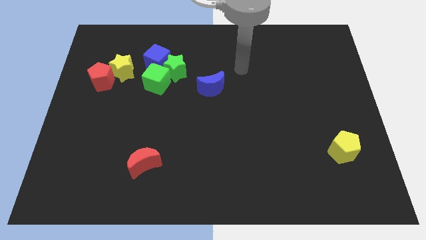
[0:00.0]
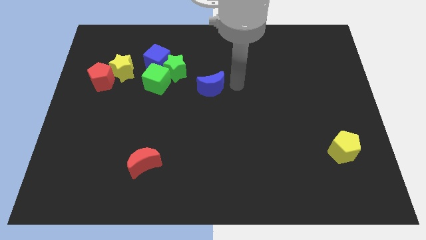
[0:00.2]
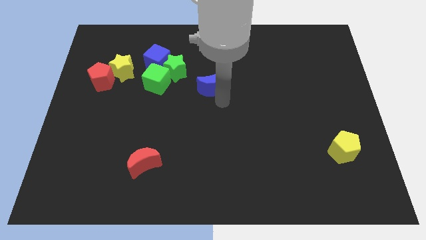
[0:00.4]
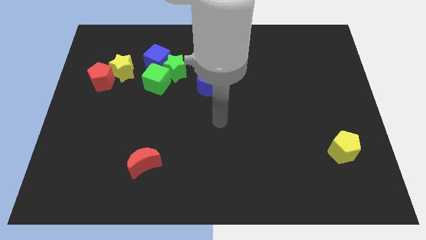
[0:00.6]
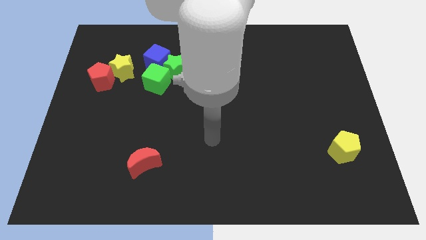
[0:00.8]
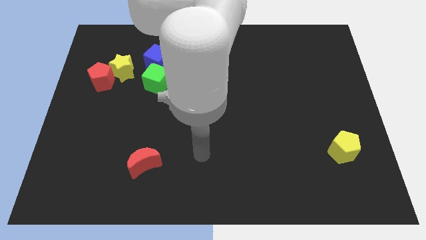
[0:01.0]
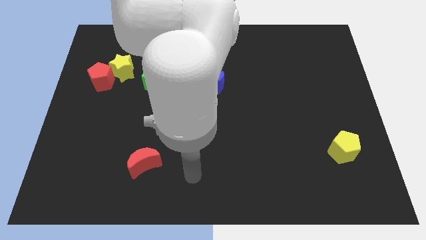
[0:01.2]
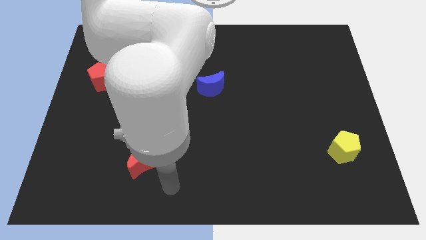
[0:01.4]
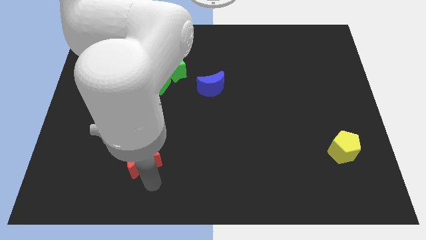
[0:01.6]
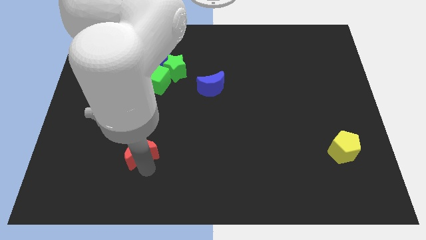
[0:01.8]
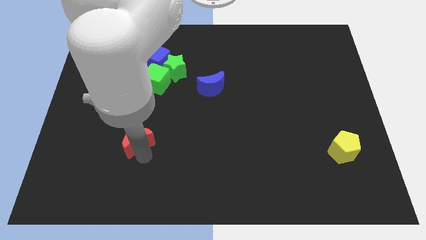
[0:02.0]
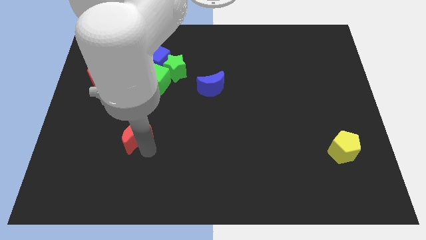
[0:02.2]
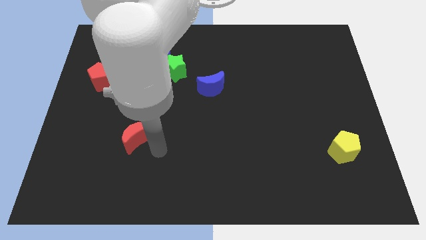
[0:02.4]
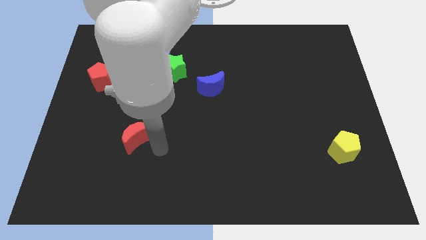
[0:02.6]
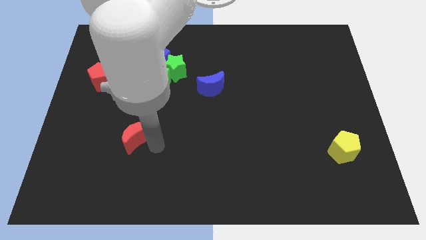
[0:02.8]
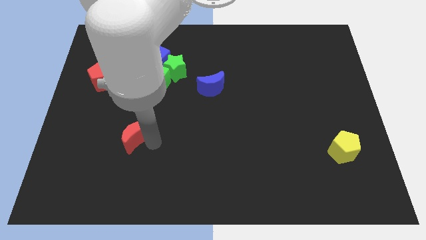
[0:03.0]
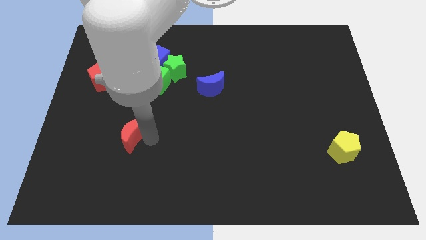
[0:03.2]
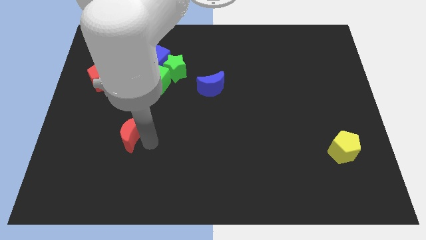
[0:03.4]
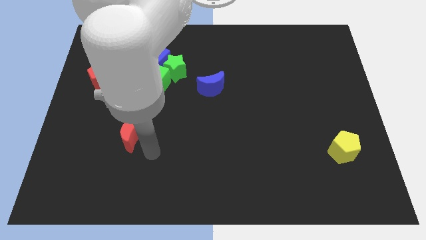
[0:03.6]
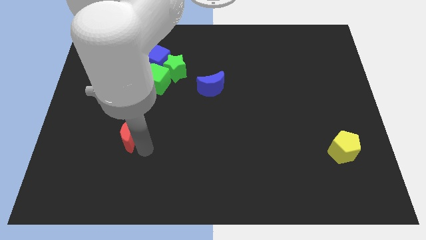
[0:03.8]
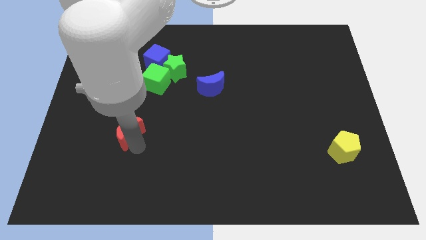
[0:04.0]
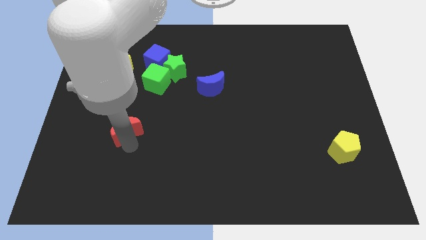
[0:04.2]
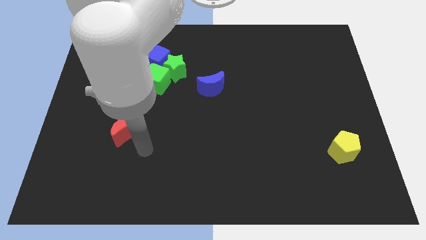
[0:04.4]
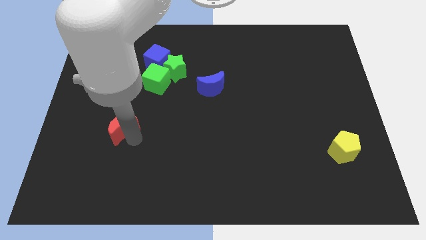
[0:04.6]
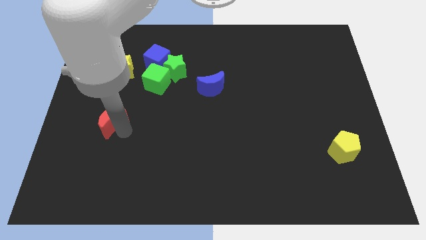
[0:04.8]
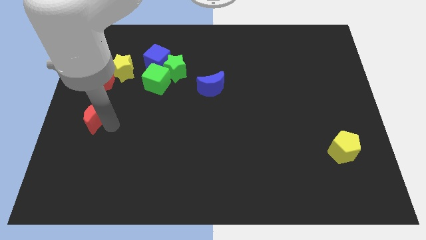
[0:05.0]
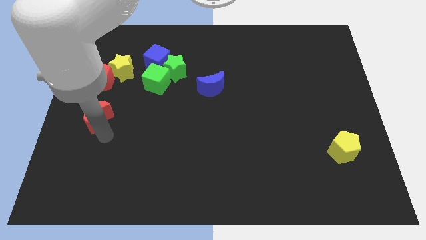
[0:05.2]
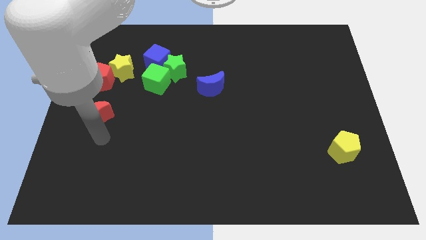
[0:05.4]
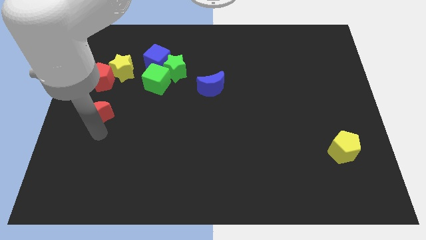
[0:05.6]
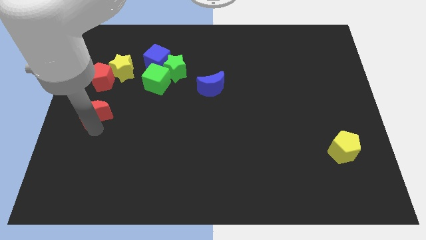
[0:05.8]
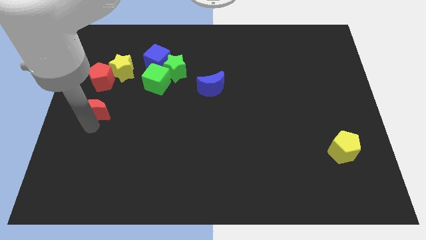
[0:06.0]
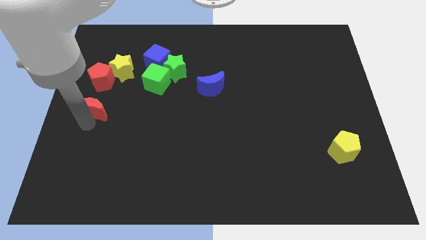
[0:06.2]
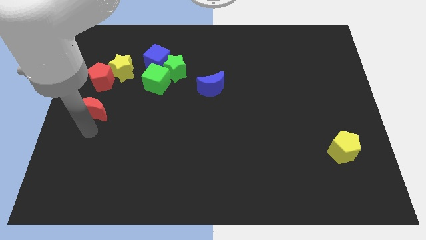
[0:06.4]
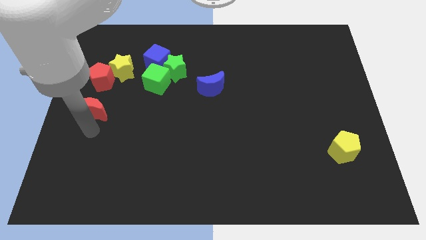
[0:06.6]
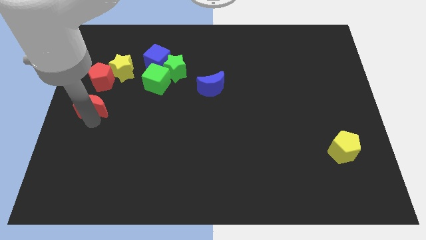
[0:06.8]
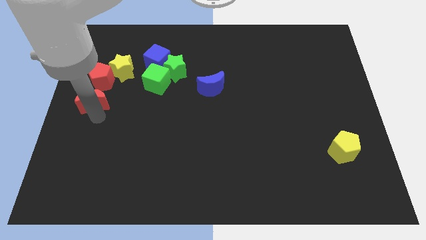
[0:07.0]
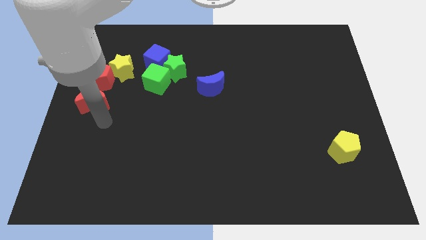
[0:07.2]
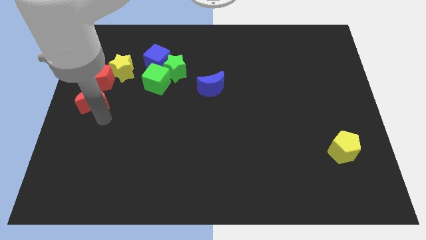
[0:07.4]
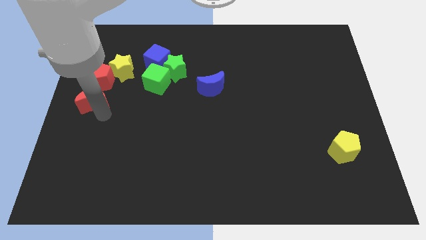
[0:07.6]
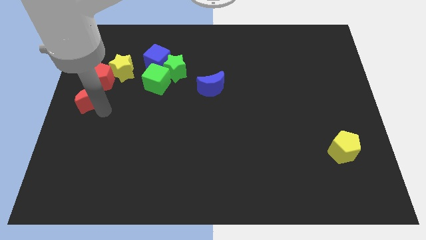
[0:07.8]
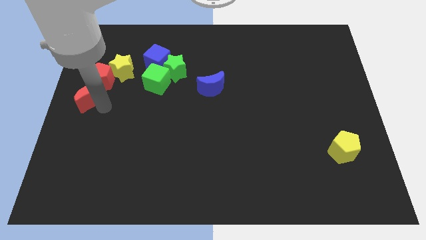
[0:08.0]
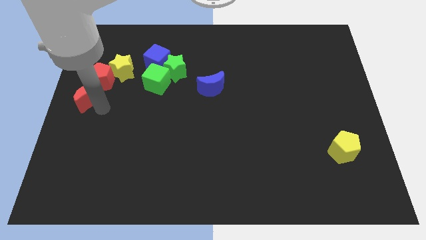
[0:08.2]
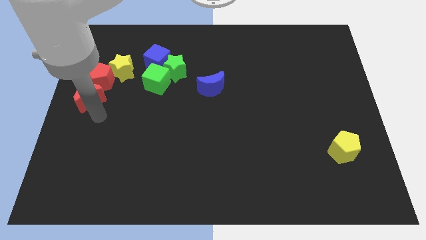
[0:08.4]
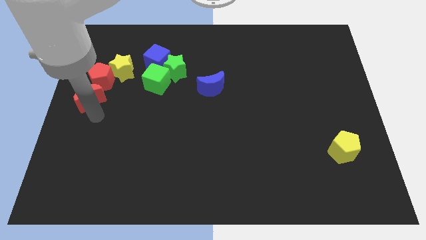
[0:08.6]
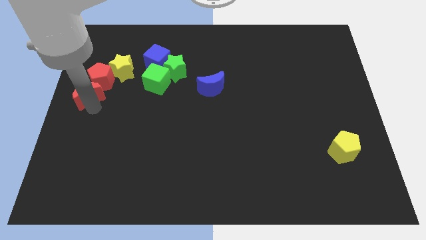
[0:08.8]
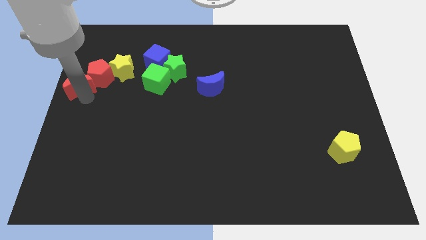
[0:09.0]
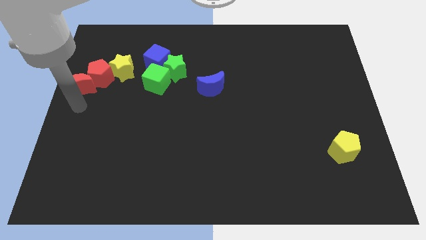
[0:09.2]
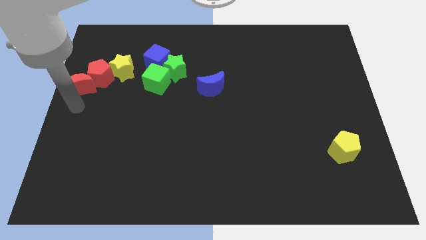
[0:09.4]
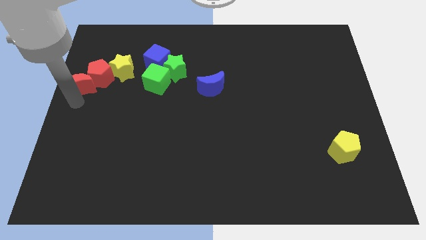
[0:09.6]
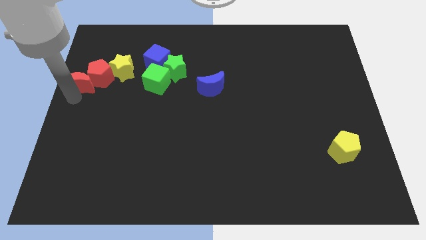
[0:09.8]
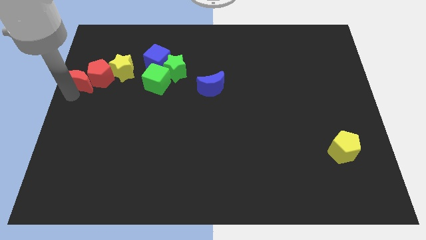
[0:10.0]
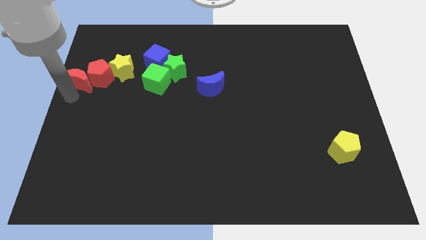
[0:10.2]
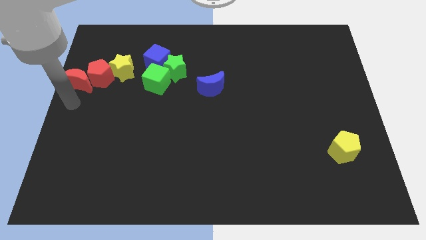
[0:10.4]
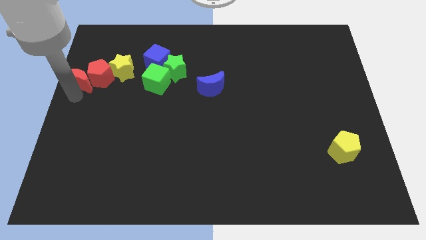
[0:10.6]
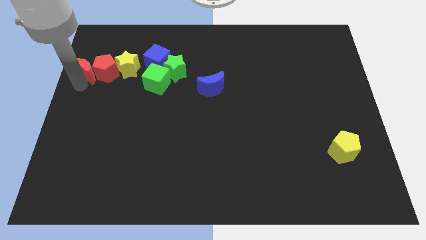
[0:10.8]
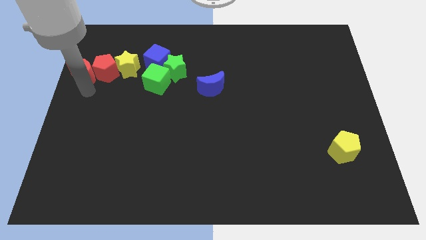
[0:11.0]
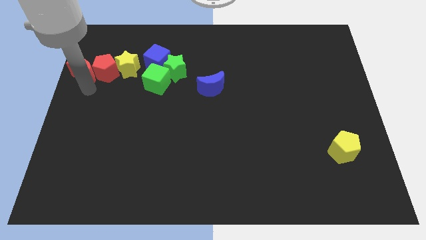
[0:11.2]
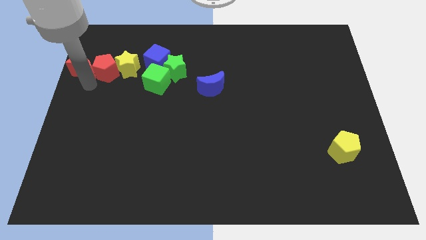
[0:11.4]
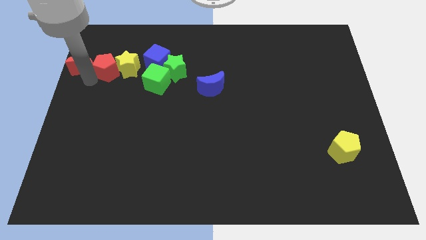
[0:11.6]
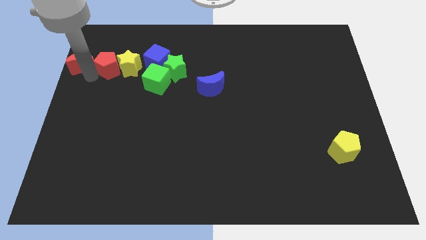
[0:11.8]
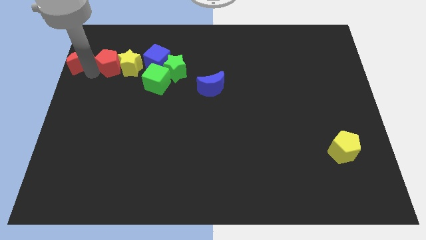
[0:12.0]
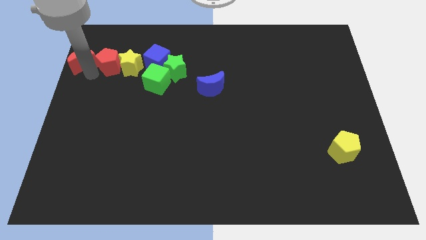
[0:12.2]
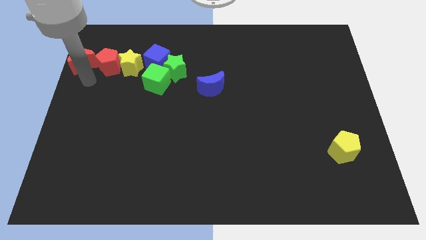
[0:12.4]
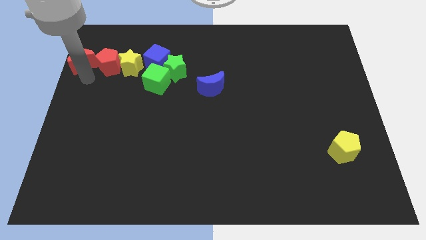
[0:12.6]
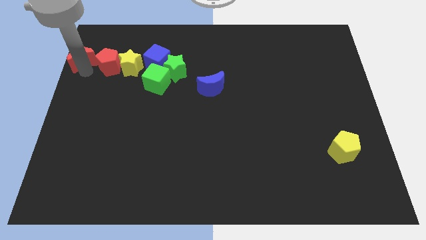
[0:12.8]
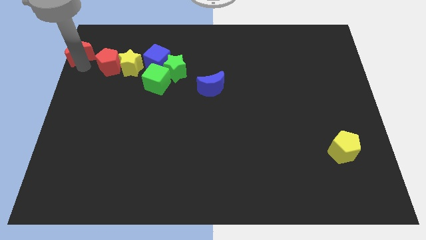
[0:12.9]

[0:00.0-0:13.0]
push the red moon to the top left

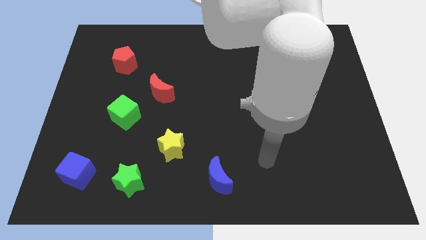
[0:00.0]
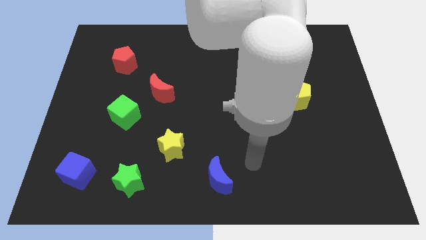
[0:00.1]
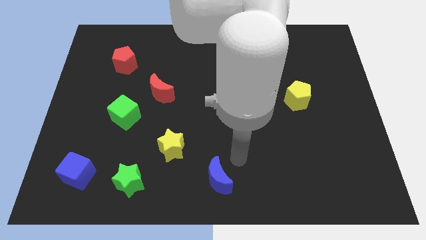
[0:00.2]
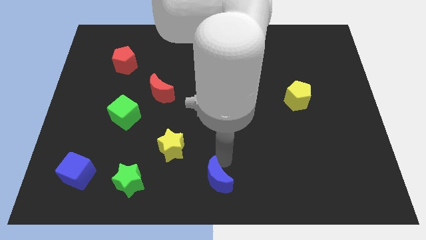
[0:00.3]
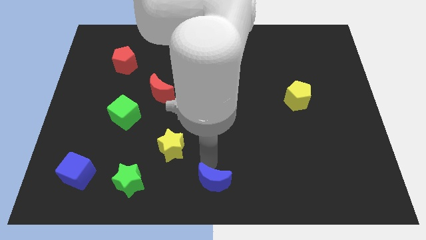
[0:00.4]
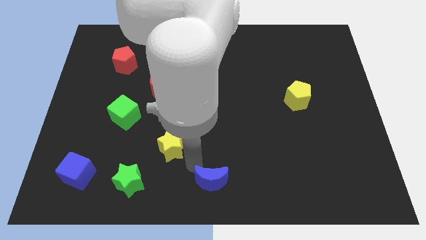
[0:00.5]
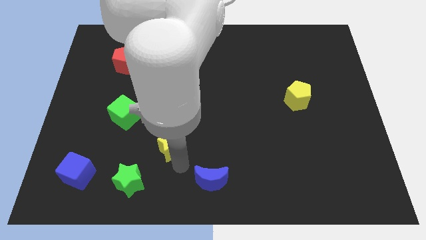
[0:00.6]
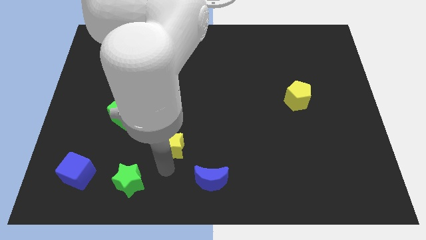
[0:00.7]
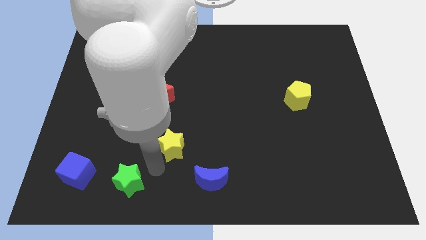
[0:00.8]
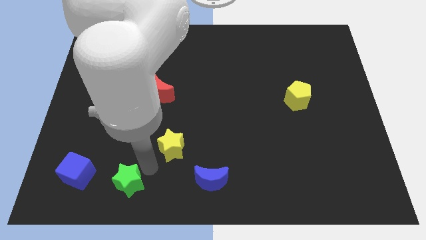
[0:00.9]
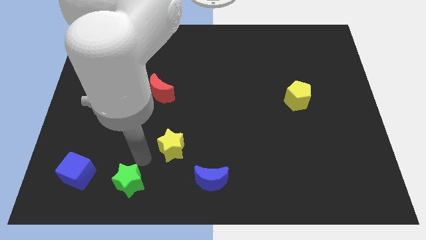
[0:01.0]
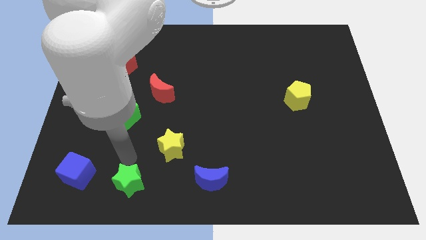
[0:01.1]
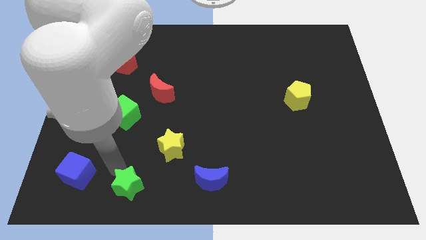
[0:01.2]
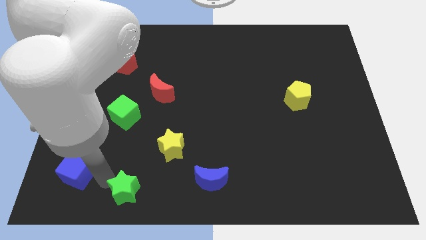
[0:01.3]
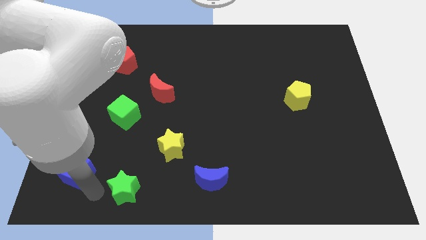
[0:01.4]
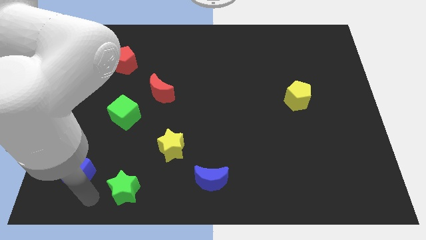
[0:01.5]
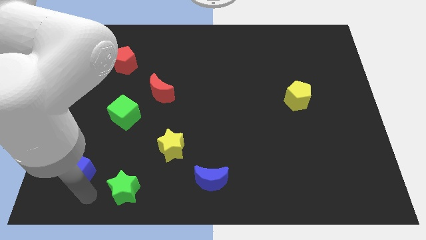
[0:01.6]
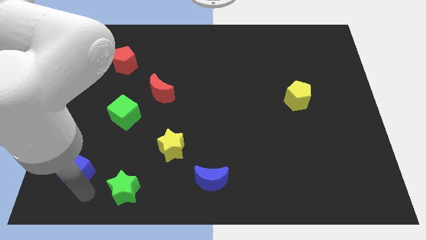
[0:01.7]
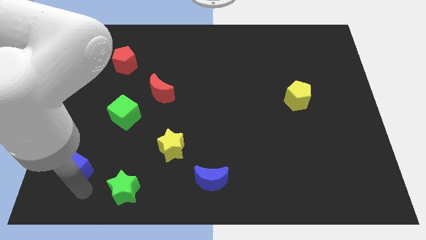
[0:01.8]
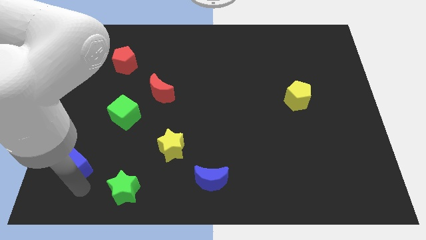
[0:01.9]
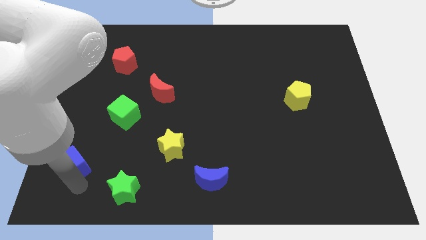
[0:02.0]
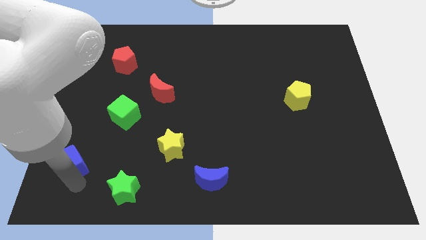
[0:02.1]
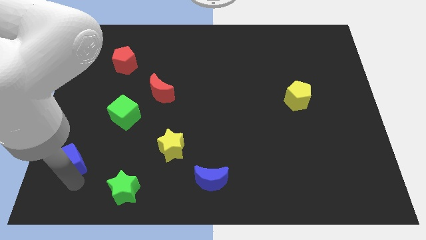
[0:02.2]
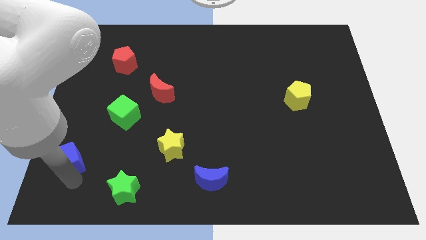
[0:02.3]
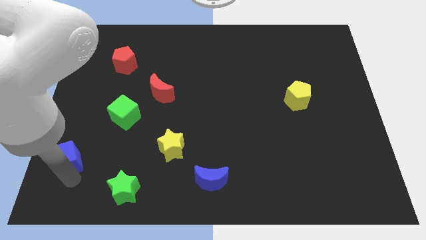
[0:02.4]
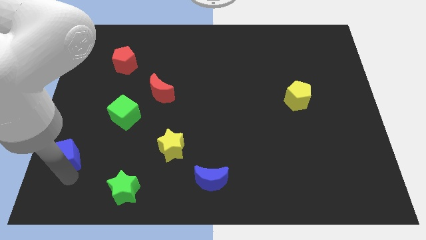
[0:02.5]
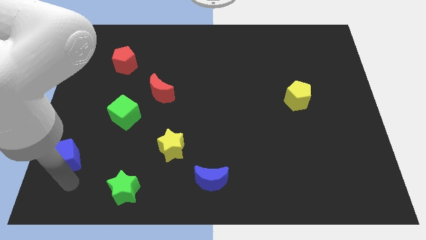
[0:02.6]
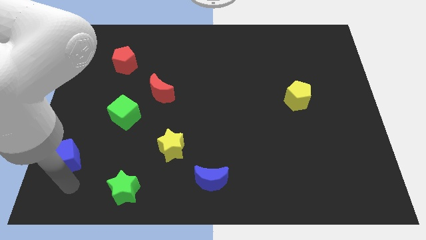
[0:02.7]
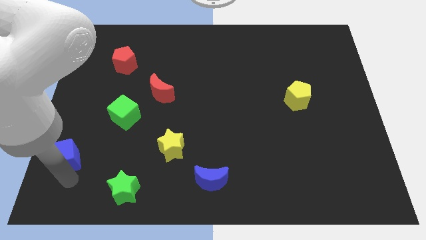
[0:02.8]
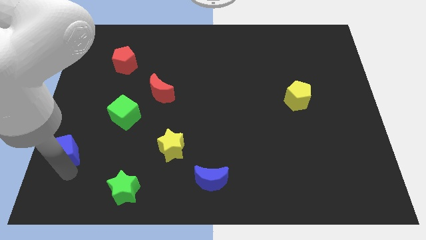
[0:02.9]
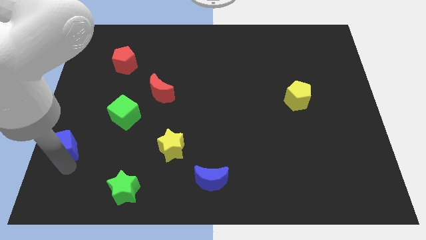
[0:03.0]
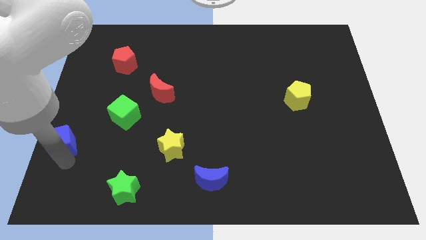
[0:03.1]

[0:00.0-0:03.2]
slide the blue cube to the left side
